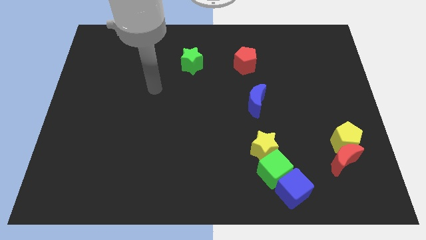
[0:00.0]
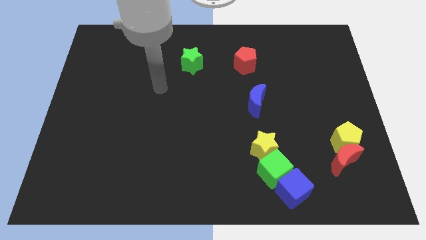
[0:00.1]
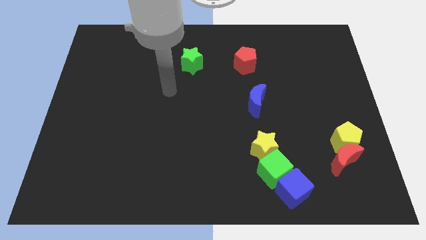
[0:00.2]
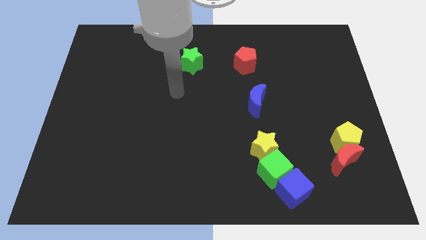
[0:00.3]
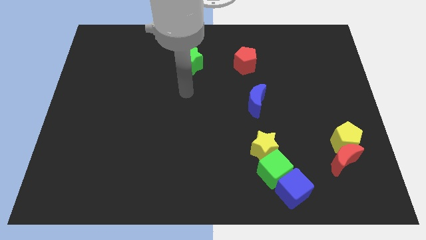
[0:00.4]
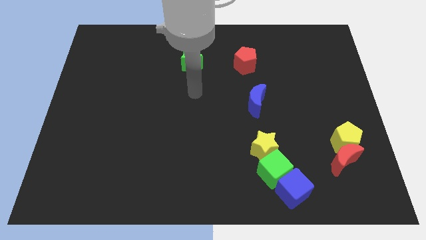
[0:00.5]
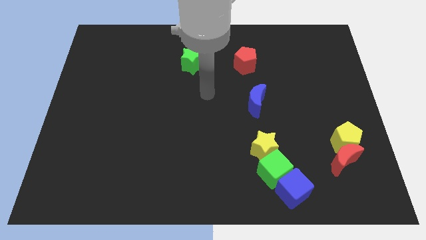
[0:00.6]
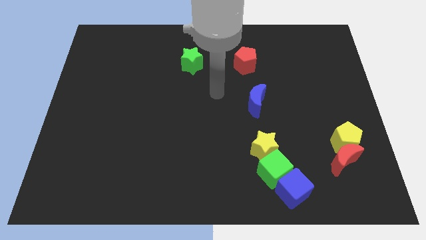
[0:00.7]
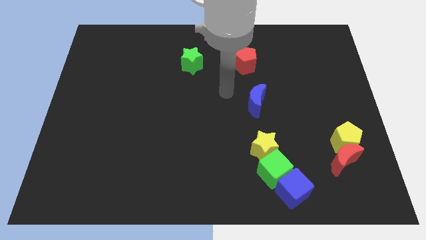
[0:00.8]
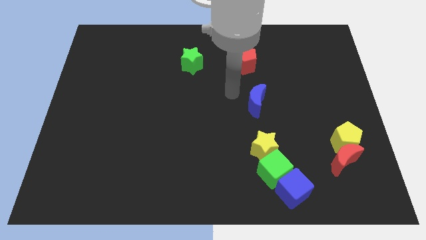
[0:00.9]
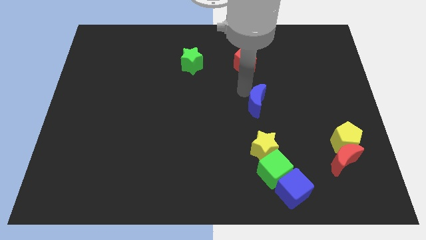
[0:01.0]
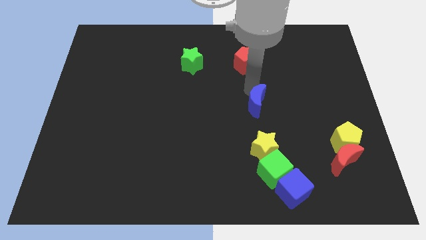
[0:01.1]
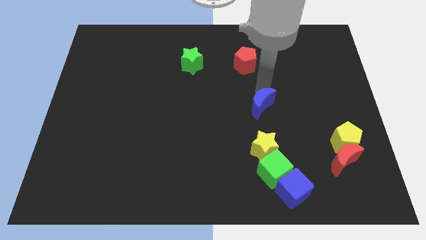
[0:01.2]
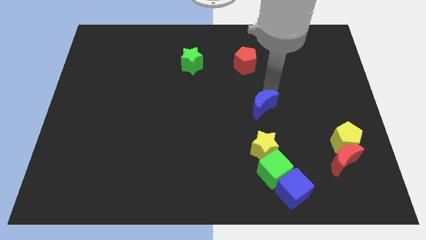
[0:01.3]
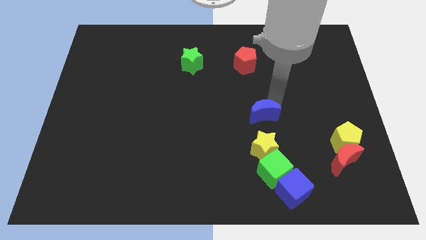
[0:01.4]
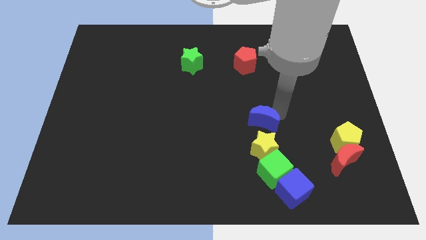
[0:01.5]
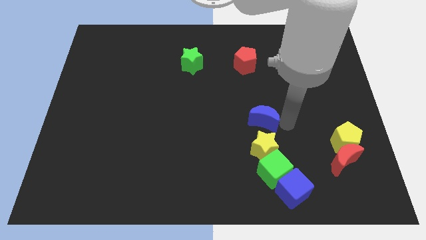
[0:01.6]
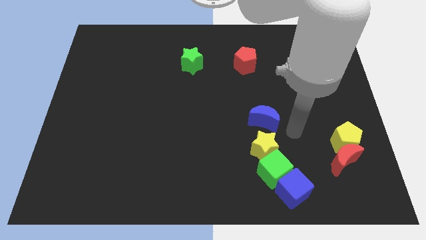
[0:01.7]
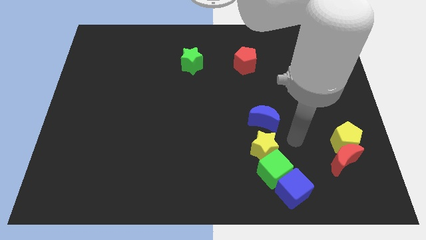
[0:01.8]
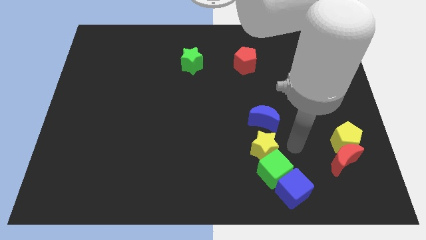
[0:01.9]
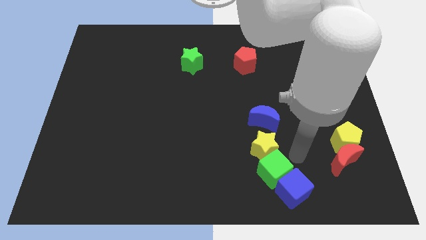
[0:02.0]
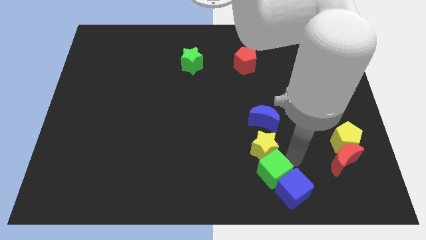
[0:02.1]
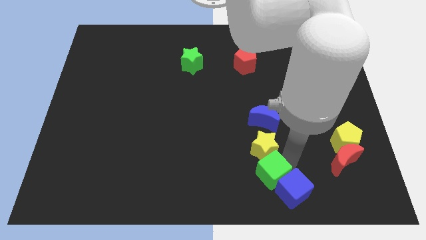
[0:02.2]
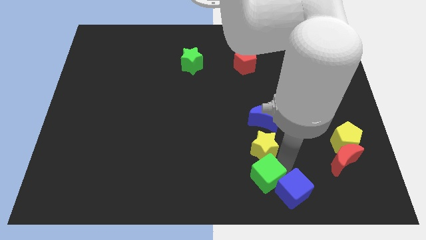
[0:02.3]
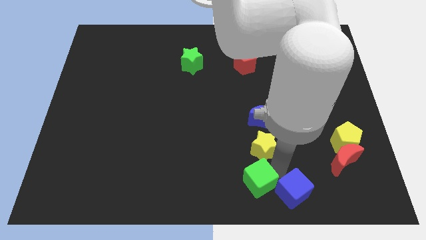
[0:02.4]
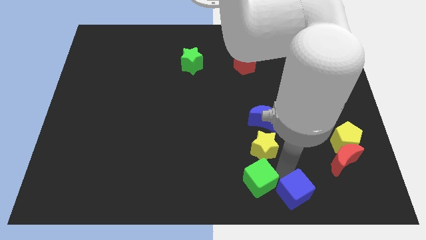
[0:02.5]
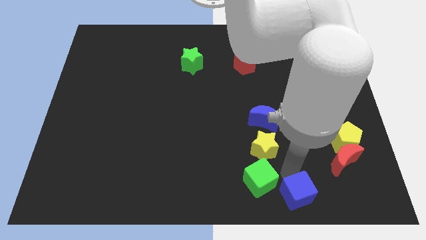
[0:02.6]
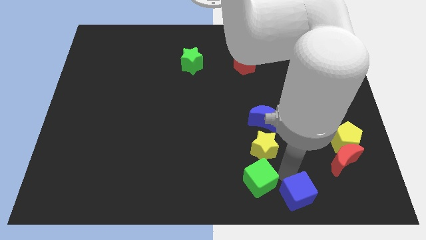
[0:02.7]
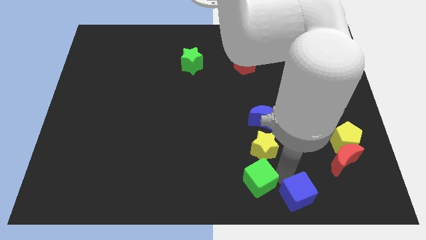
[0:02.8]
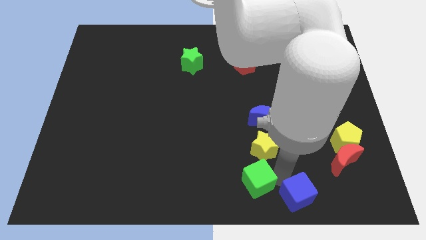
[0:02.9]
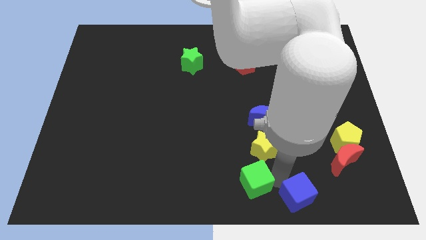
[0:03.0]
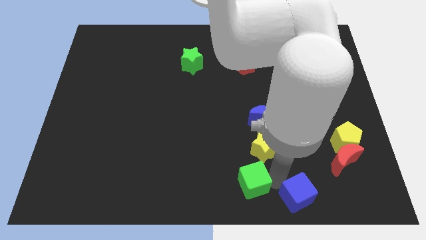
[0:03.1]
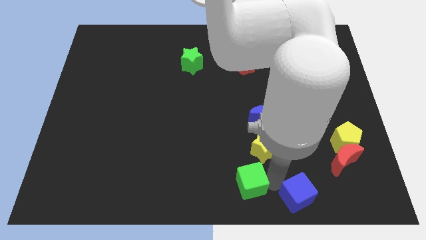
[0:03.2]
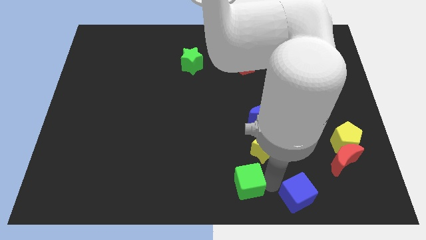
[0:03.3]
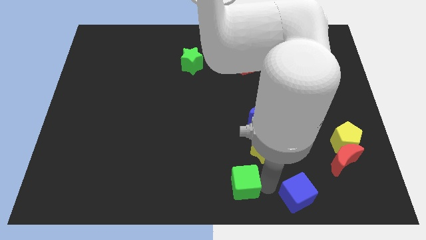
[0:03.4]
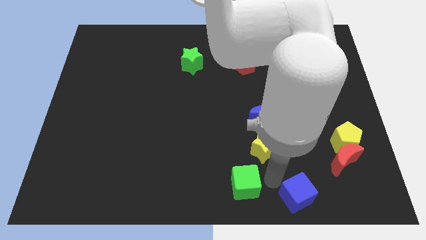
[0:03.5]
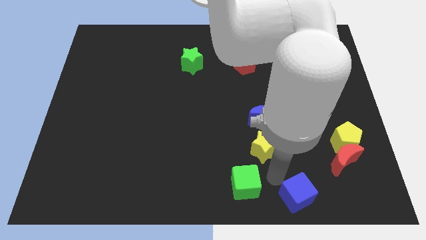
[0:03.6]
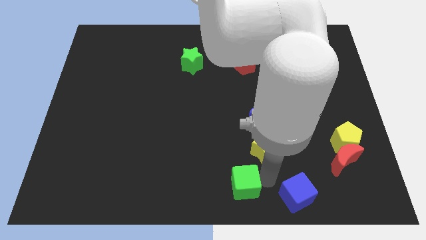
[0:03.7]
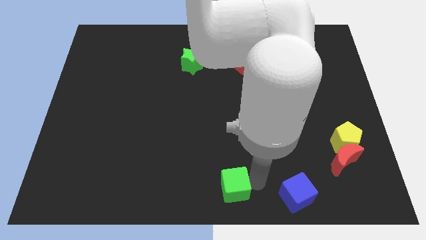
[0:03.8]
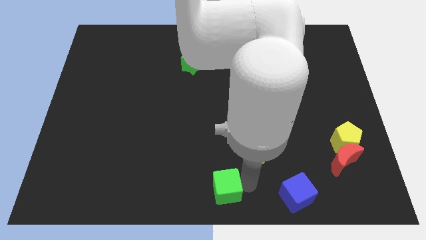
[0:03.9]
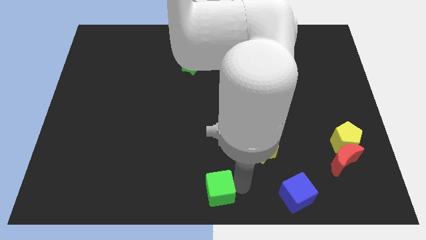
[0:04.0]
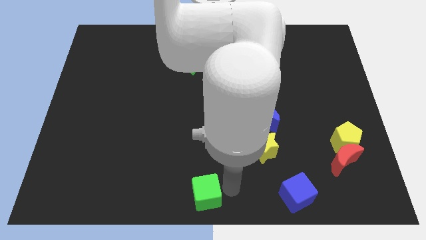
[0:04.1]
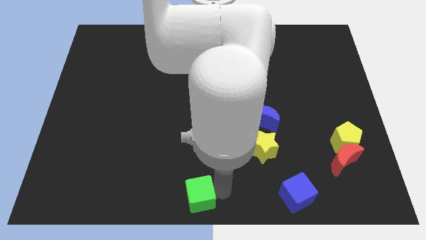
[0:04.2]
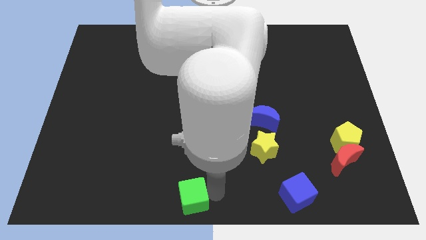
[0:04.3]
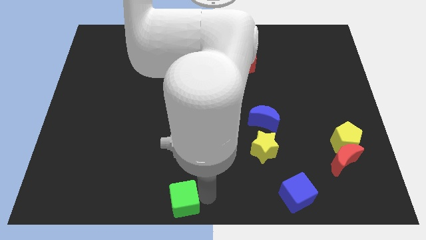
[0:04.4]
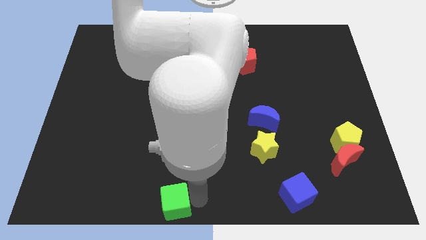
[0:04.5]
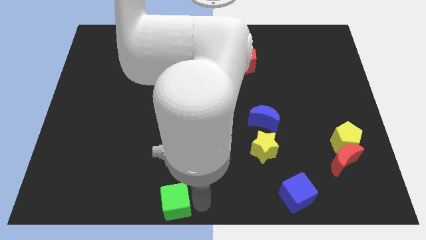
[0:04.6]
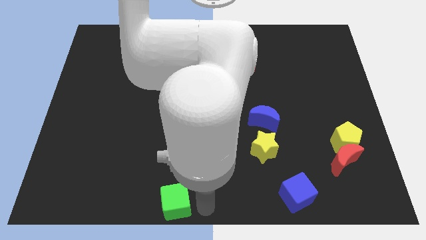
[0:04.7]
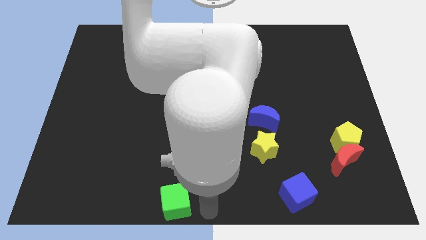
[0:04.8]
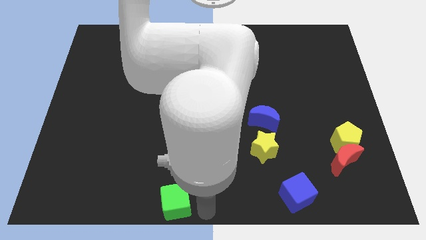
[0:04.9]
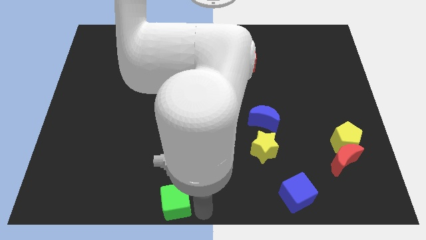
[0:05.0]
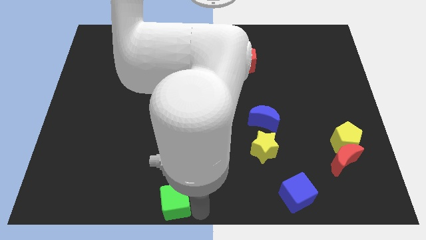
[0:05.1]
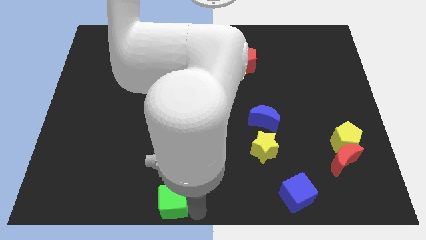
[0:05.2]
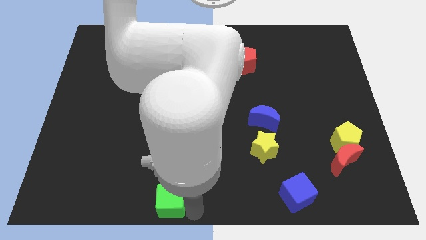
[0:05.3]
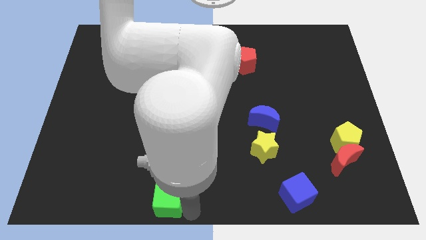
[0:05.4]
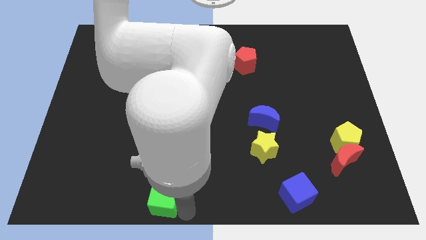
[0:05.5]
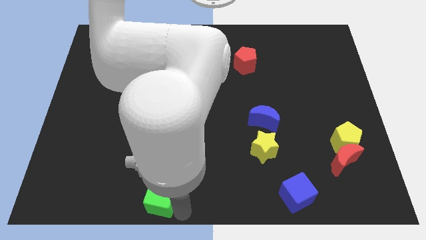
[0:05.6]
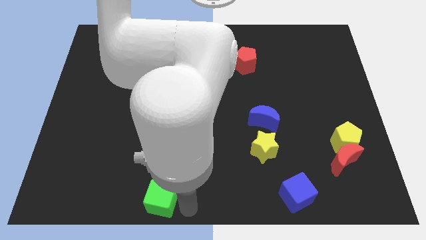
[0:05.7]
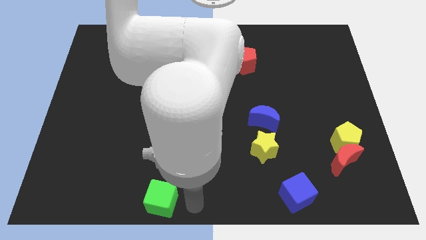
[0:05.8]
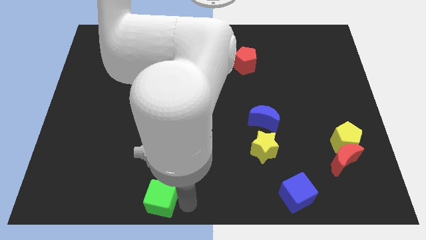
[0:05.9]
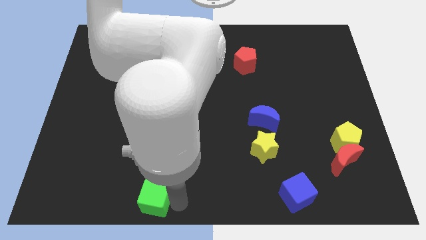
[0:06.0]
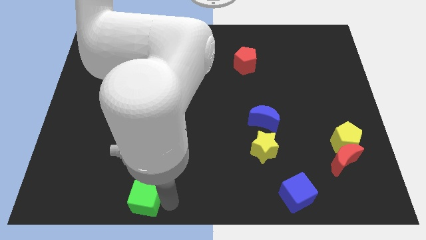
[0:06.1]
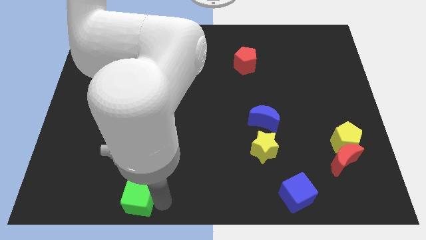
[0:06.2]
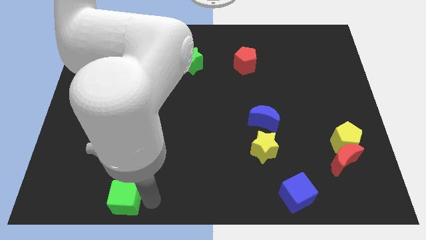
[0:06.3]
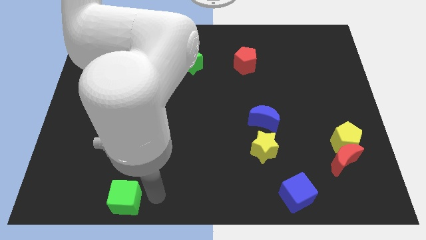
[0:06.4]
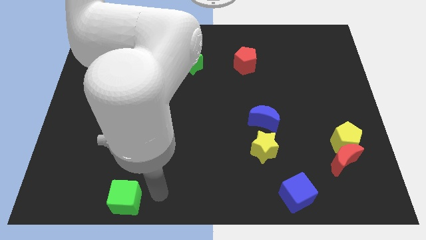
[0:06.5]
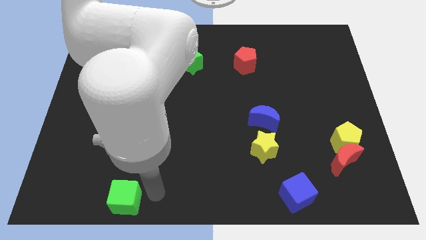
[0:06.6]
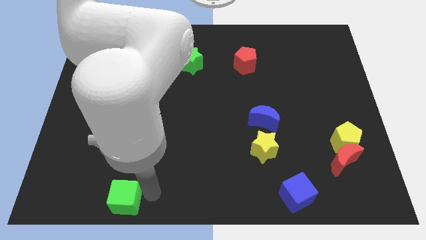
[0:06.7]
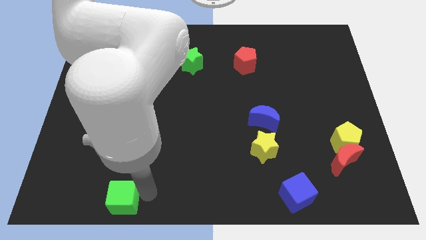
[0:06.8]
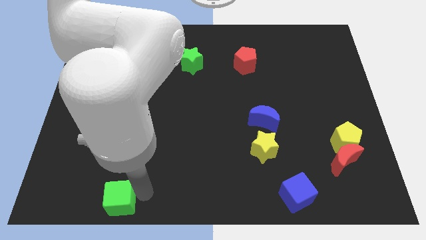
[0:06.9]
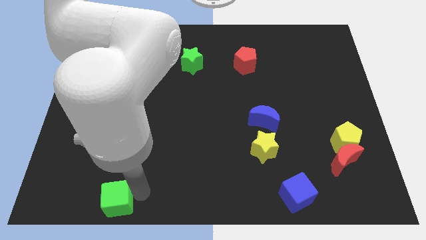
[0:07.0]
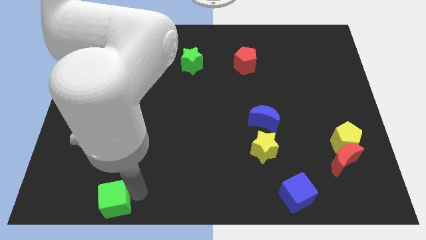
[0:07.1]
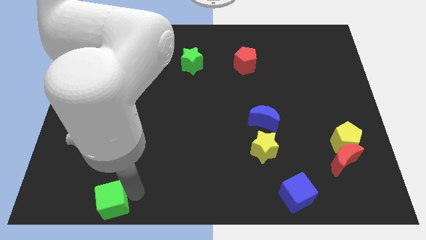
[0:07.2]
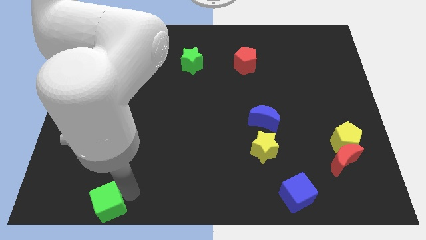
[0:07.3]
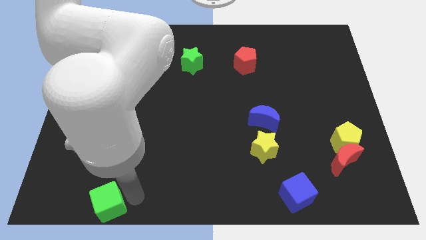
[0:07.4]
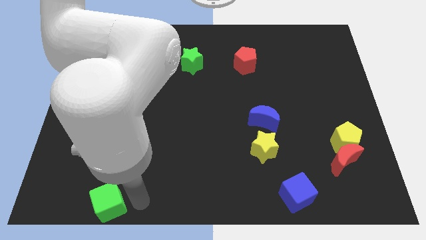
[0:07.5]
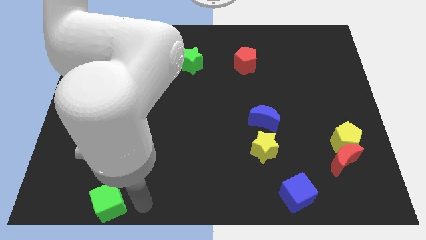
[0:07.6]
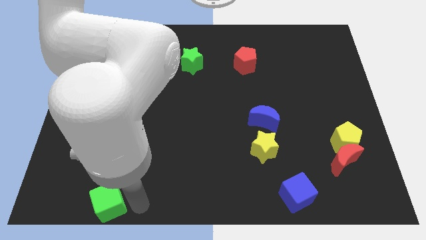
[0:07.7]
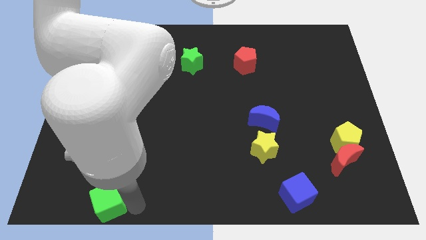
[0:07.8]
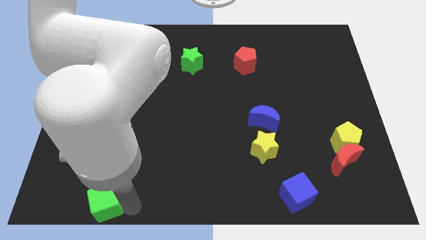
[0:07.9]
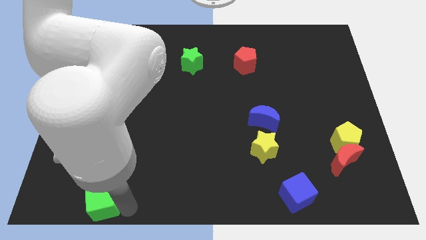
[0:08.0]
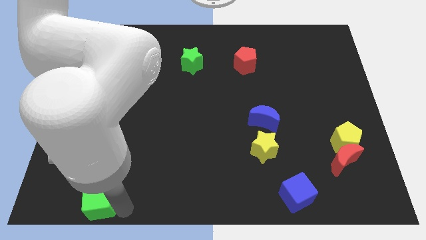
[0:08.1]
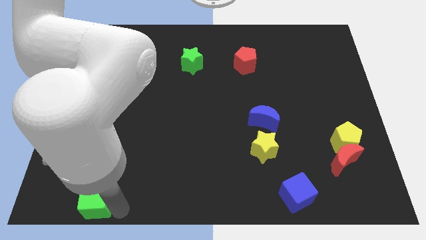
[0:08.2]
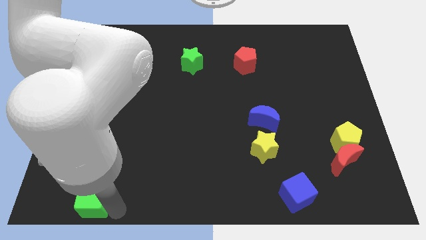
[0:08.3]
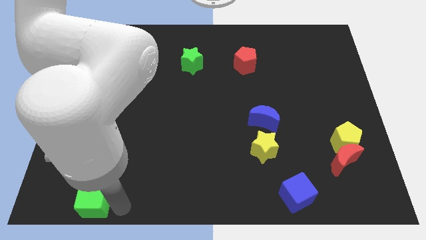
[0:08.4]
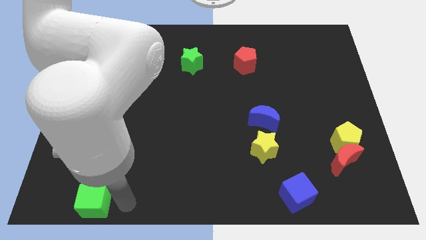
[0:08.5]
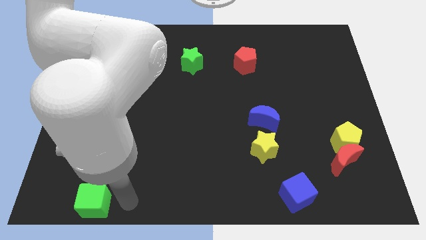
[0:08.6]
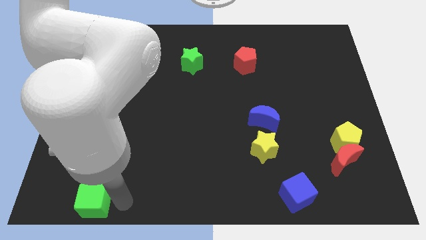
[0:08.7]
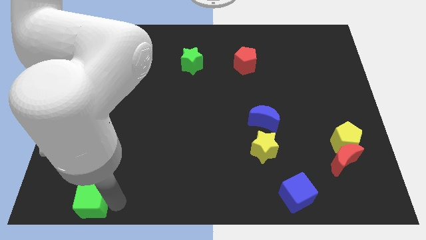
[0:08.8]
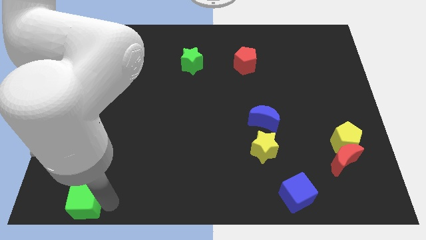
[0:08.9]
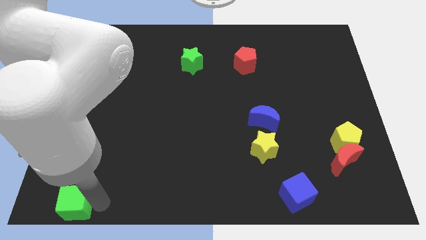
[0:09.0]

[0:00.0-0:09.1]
put the green cube to the bottom left
